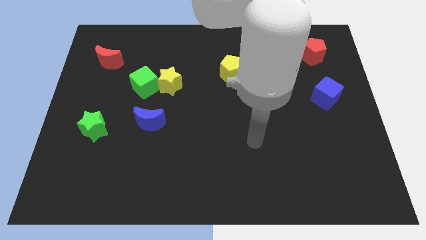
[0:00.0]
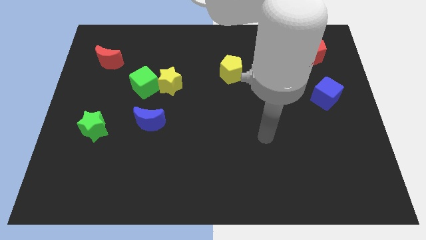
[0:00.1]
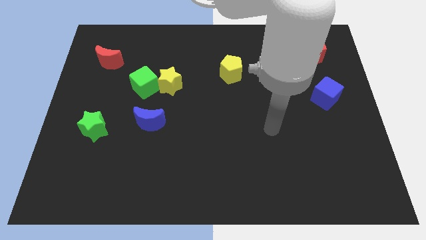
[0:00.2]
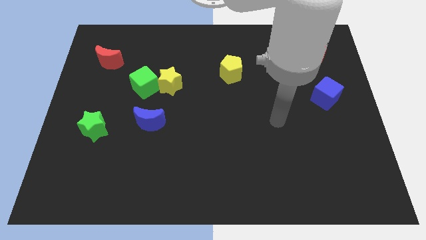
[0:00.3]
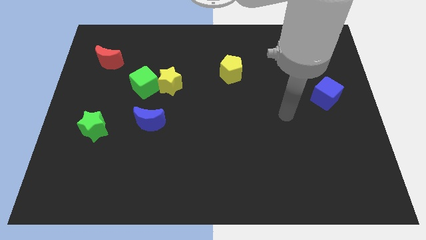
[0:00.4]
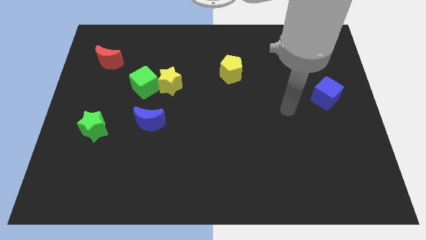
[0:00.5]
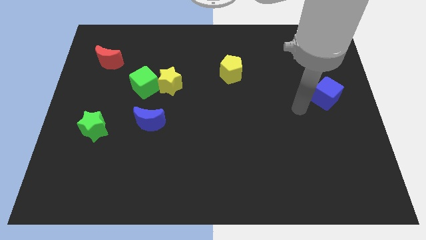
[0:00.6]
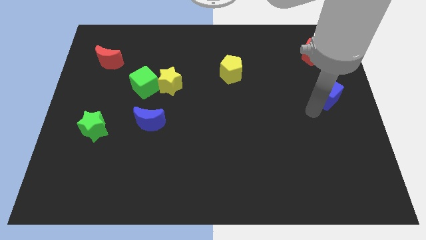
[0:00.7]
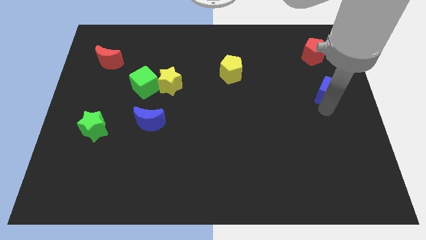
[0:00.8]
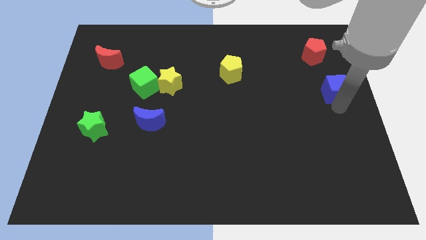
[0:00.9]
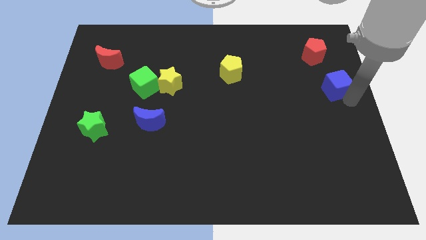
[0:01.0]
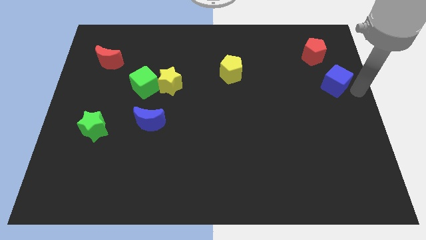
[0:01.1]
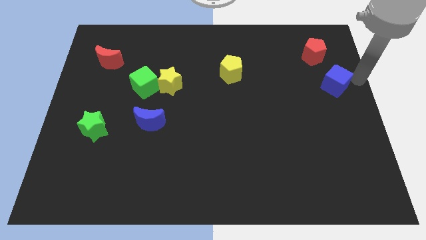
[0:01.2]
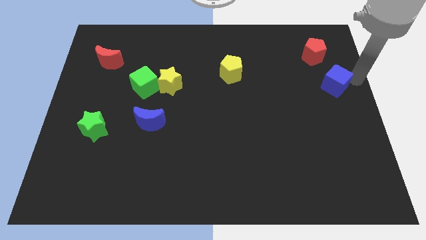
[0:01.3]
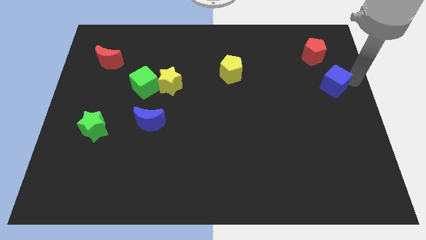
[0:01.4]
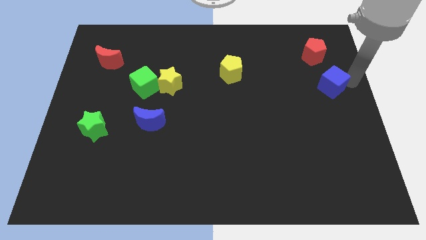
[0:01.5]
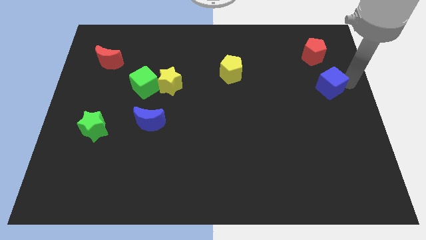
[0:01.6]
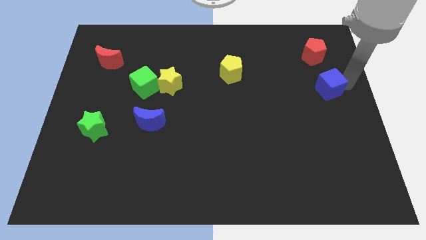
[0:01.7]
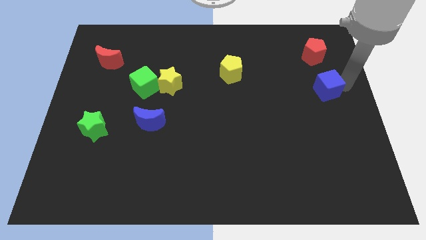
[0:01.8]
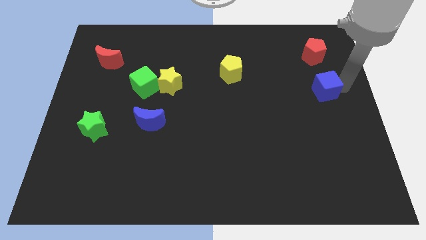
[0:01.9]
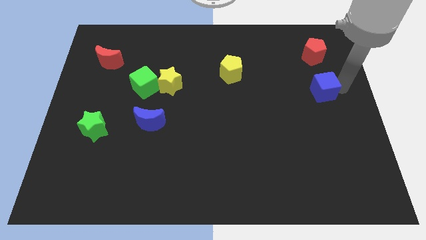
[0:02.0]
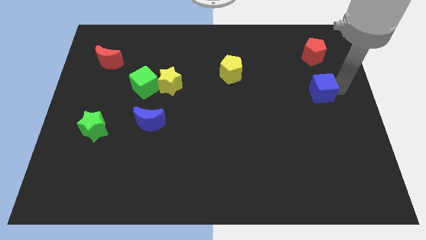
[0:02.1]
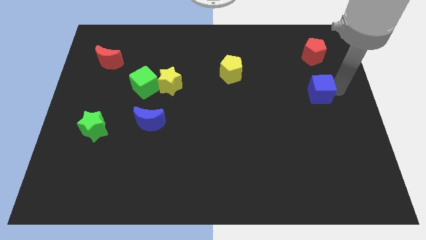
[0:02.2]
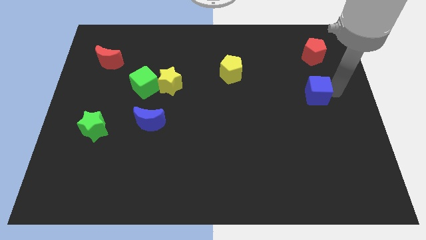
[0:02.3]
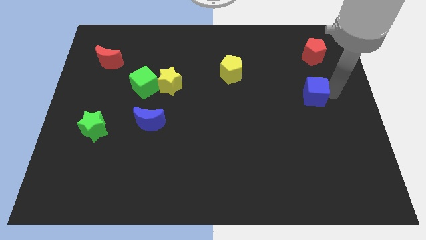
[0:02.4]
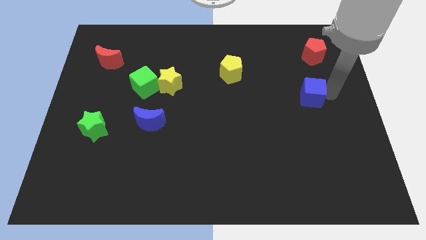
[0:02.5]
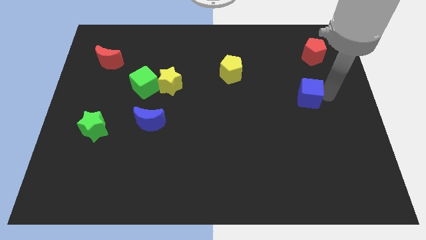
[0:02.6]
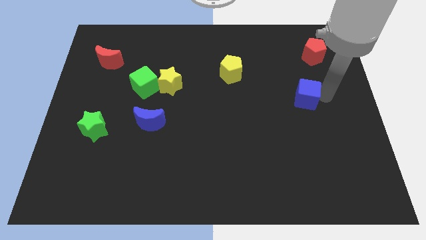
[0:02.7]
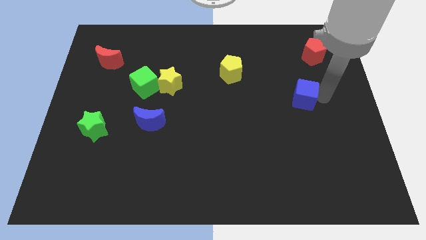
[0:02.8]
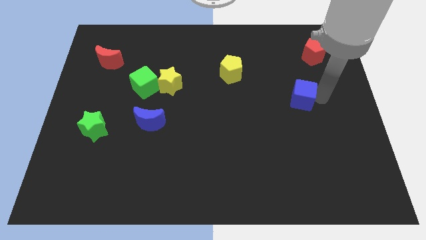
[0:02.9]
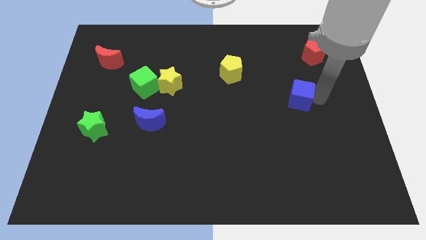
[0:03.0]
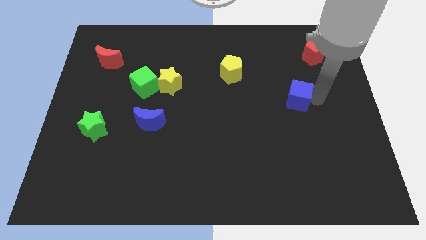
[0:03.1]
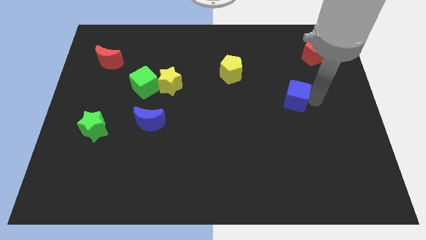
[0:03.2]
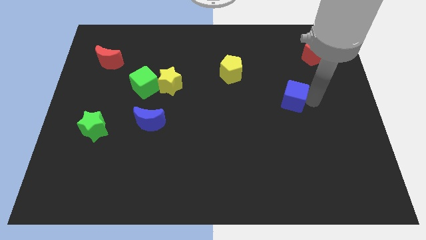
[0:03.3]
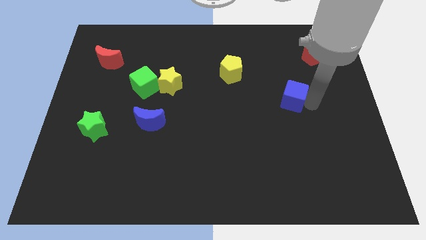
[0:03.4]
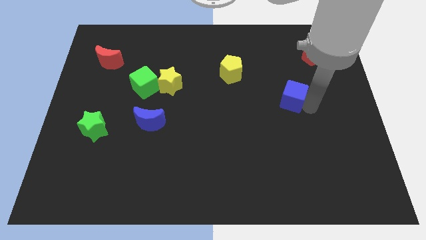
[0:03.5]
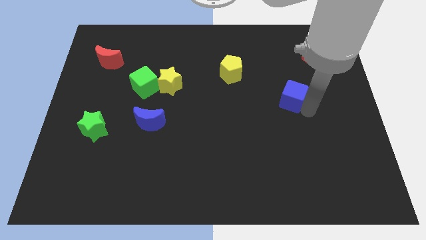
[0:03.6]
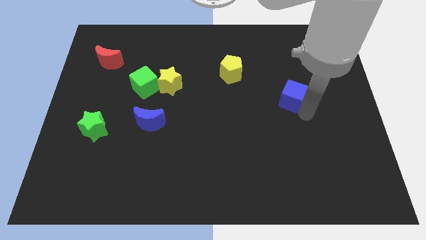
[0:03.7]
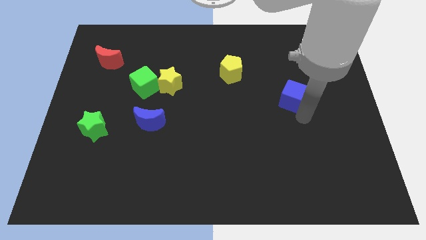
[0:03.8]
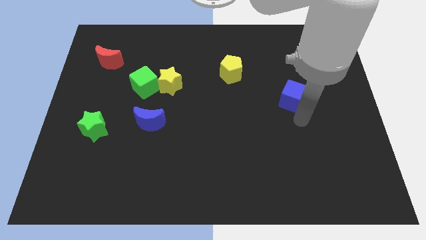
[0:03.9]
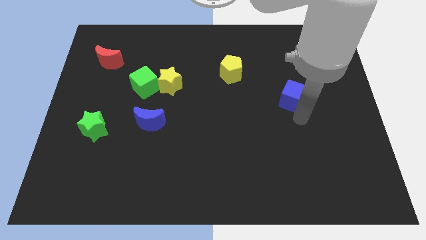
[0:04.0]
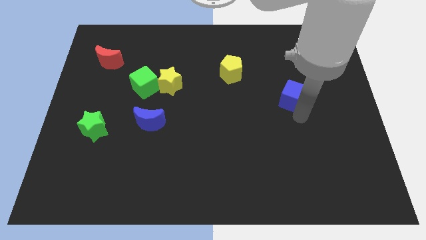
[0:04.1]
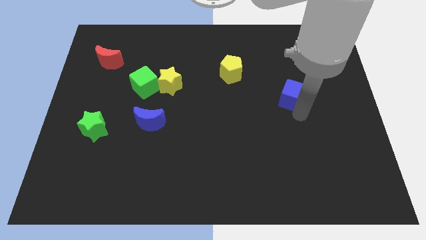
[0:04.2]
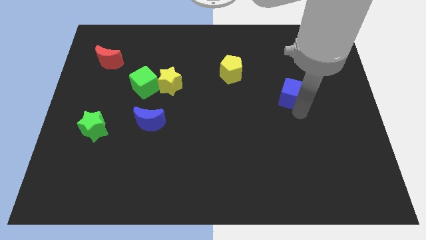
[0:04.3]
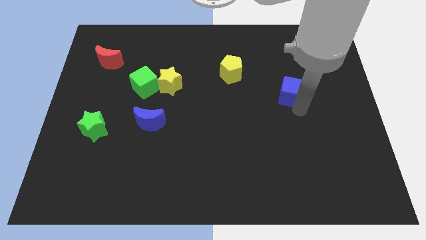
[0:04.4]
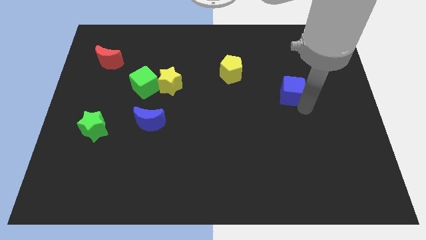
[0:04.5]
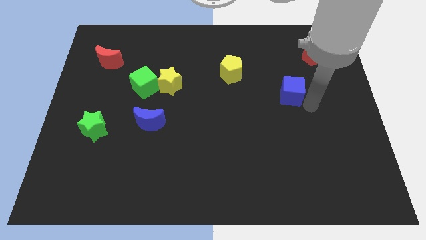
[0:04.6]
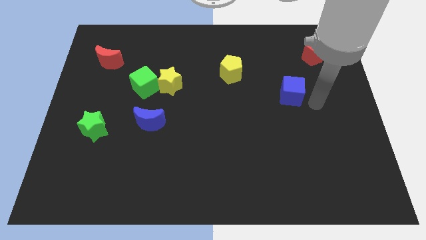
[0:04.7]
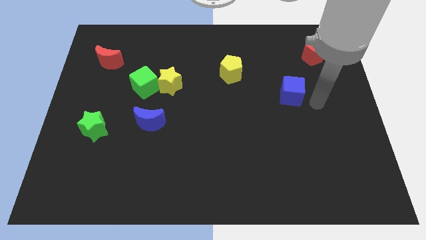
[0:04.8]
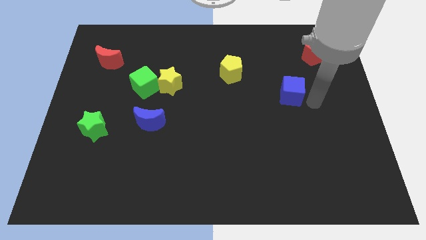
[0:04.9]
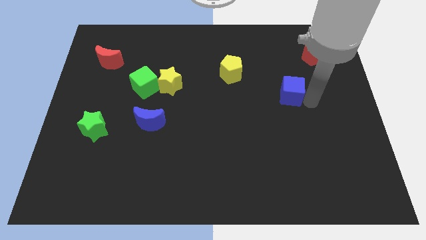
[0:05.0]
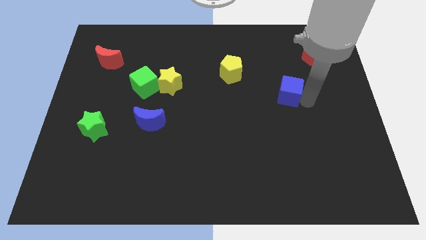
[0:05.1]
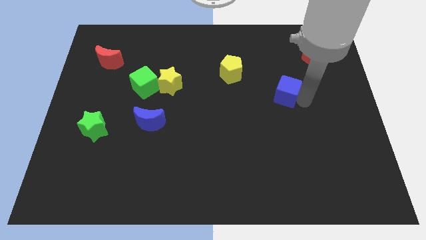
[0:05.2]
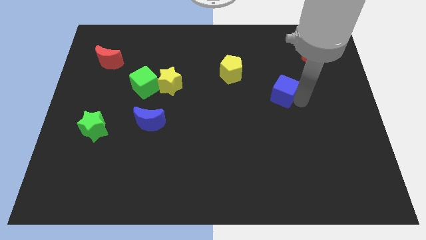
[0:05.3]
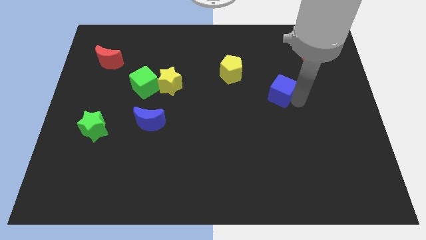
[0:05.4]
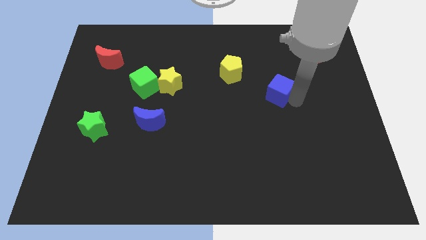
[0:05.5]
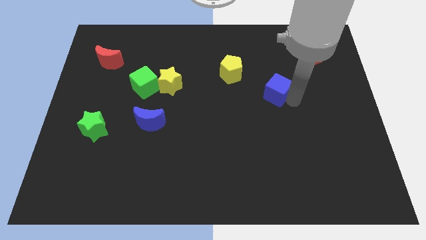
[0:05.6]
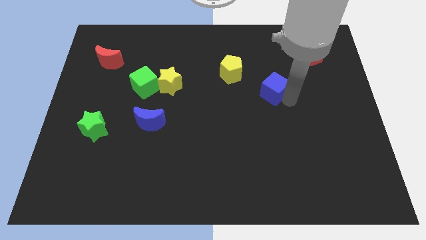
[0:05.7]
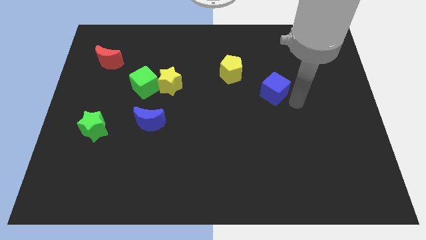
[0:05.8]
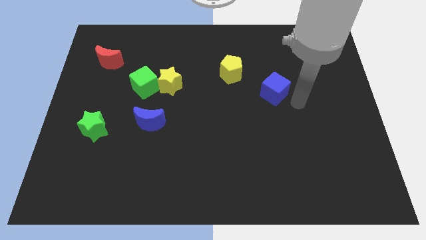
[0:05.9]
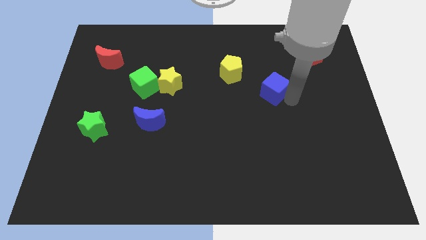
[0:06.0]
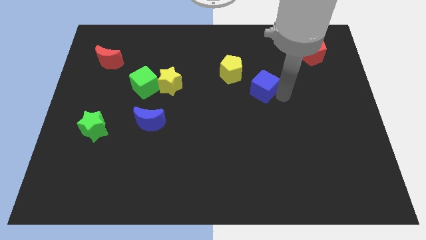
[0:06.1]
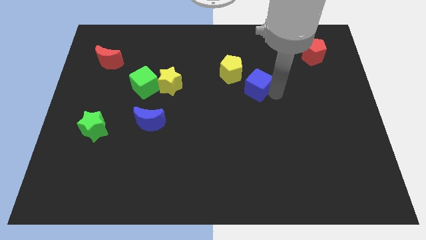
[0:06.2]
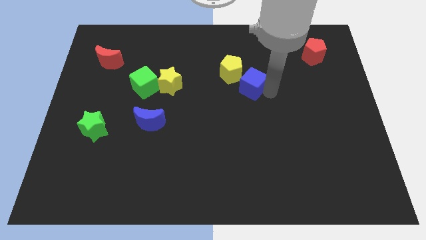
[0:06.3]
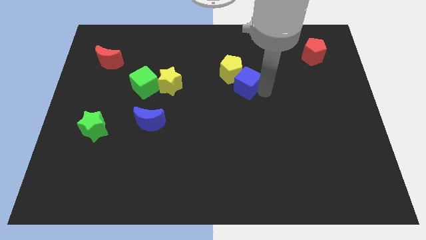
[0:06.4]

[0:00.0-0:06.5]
push the blue cube close to the yellow pentagon

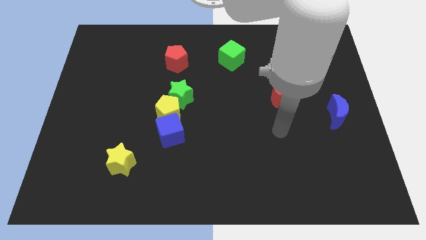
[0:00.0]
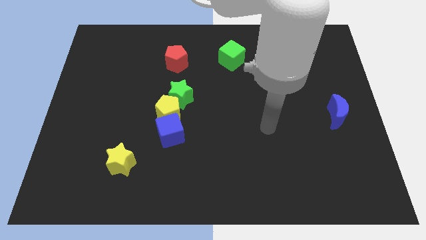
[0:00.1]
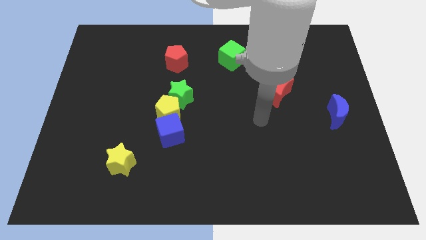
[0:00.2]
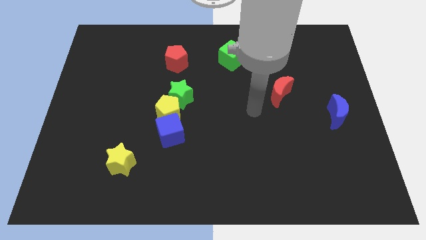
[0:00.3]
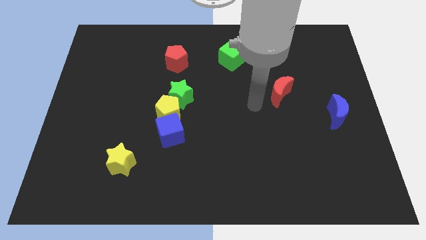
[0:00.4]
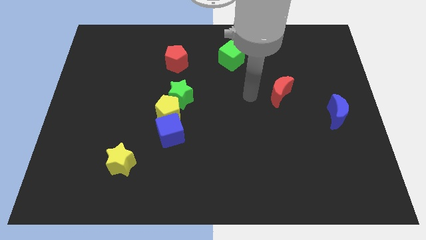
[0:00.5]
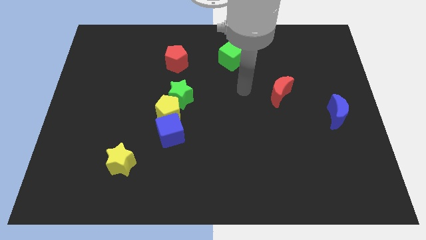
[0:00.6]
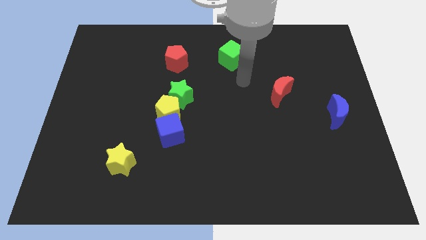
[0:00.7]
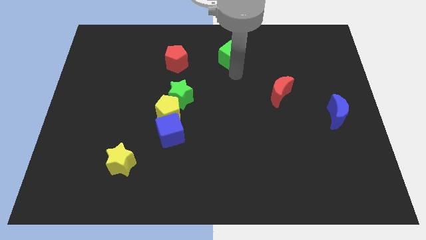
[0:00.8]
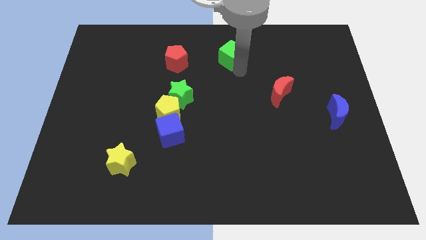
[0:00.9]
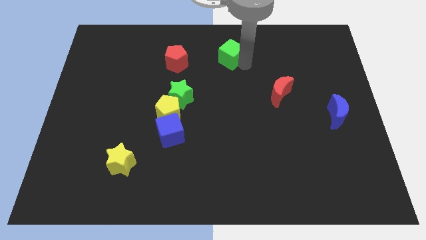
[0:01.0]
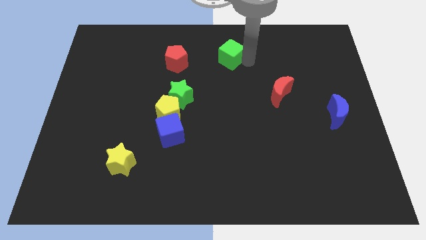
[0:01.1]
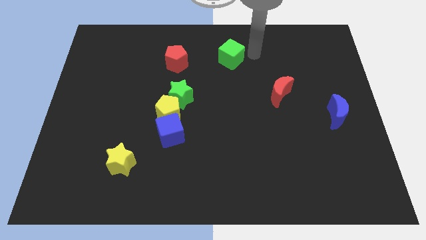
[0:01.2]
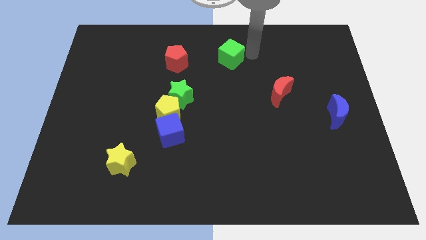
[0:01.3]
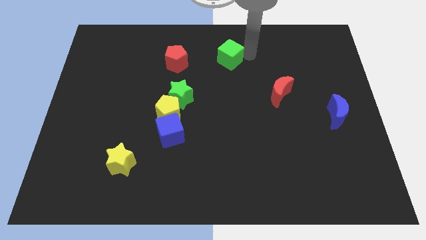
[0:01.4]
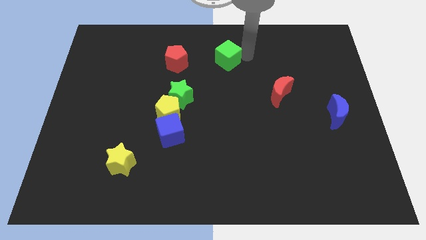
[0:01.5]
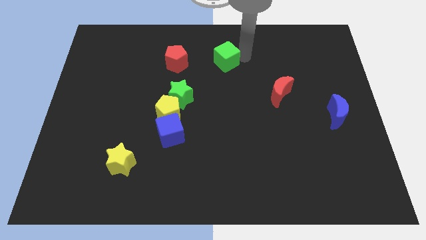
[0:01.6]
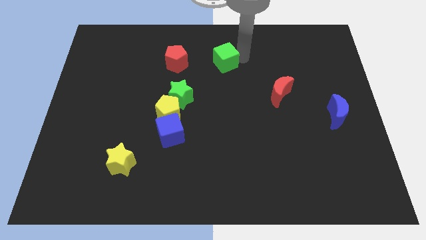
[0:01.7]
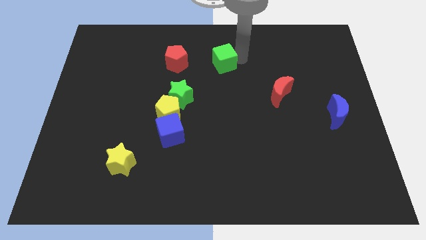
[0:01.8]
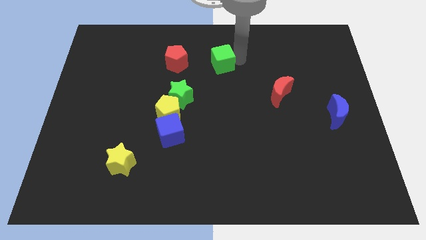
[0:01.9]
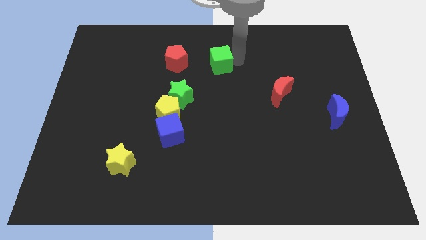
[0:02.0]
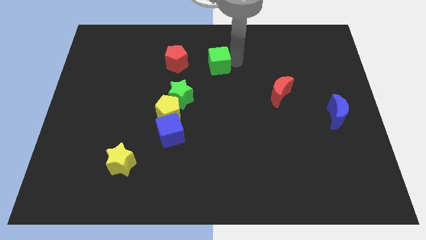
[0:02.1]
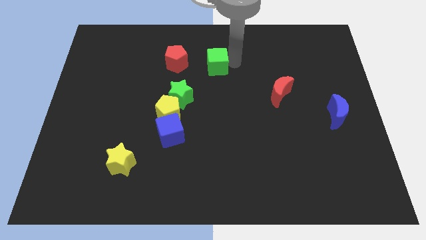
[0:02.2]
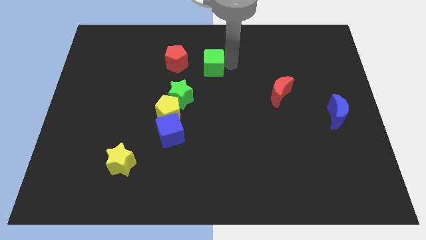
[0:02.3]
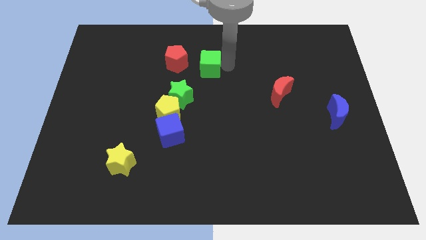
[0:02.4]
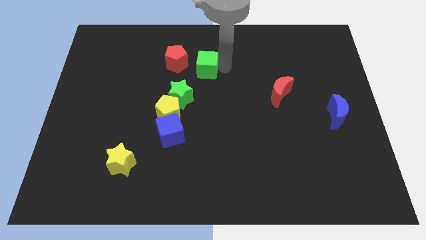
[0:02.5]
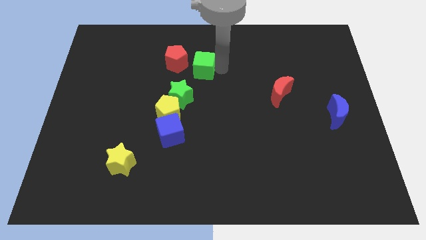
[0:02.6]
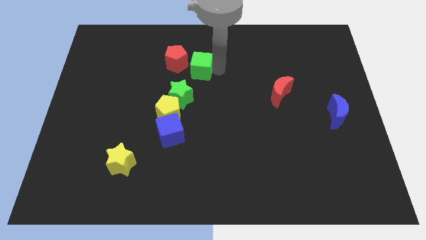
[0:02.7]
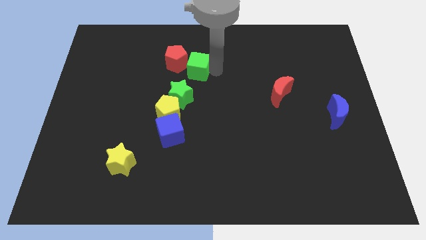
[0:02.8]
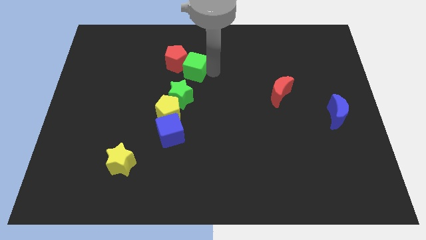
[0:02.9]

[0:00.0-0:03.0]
push the green cube close to the red pentagon
